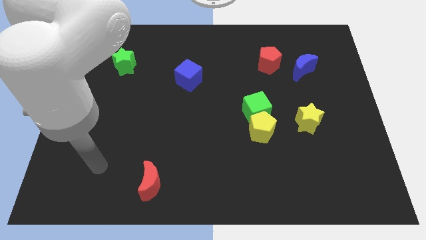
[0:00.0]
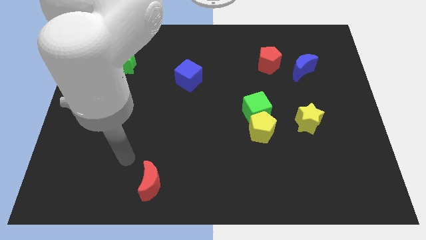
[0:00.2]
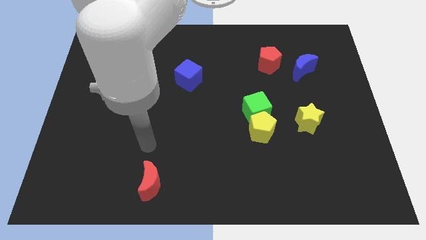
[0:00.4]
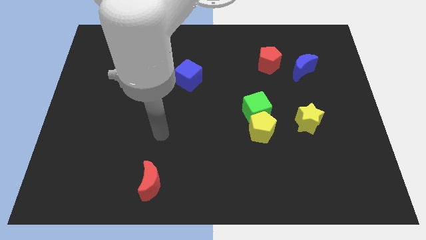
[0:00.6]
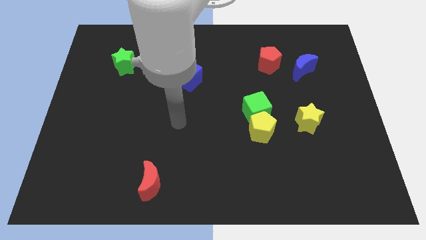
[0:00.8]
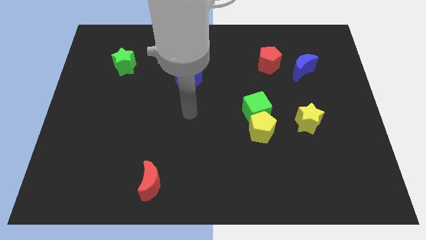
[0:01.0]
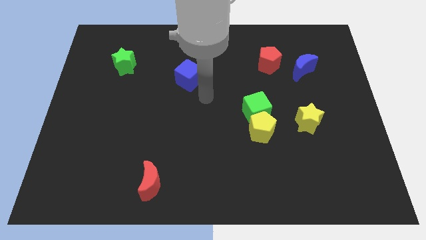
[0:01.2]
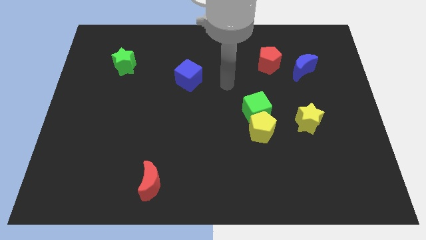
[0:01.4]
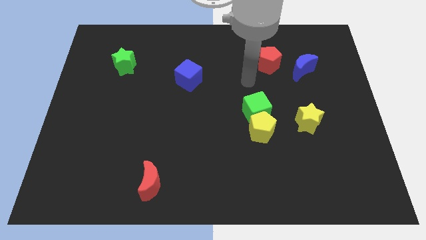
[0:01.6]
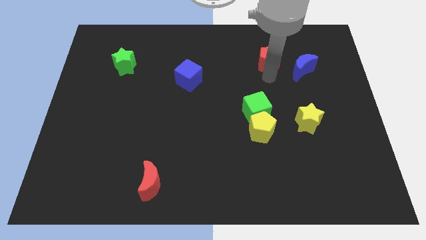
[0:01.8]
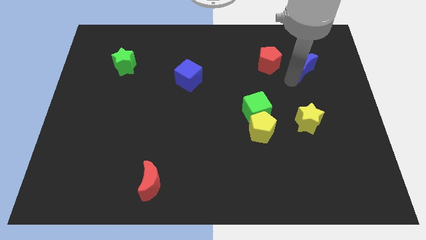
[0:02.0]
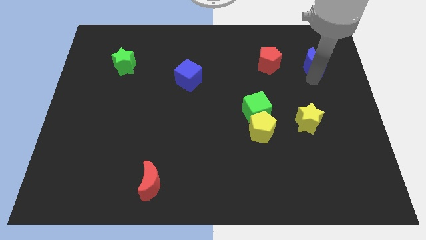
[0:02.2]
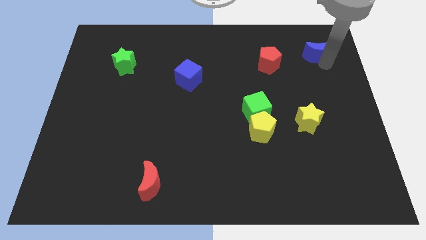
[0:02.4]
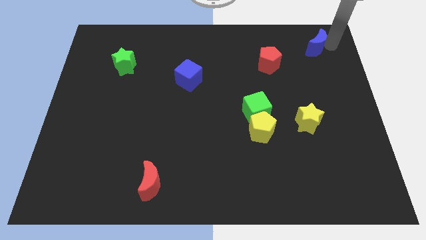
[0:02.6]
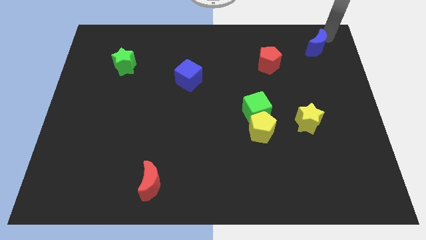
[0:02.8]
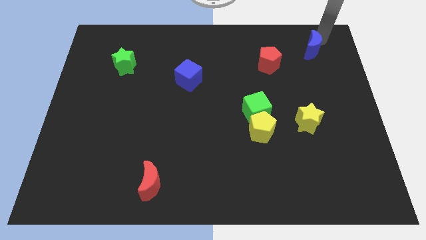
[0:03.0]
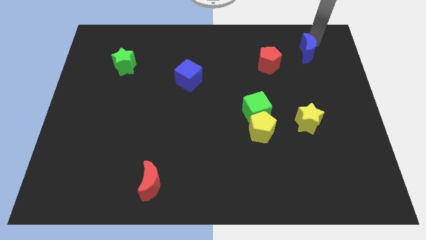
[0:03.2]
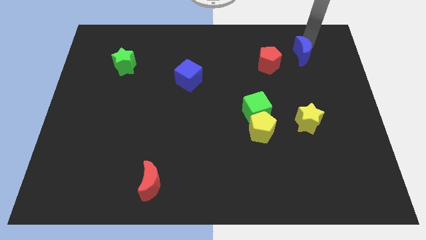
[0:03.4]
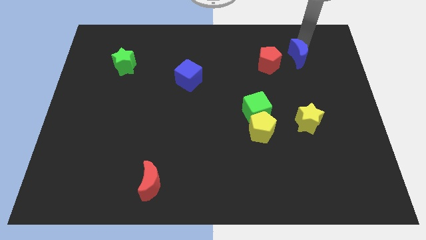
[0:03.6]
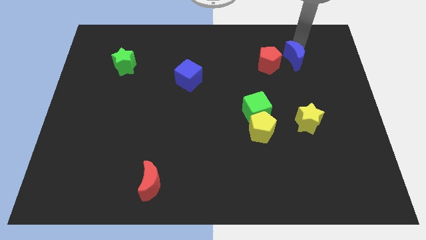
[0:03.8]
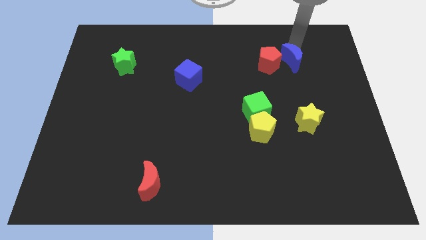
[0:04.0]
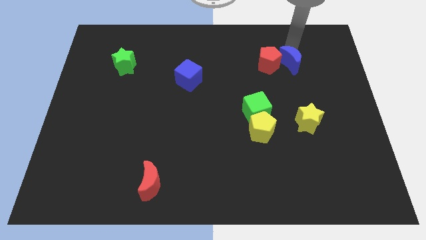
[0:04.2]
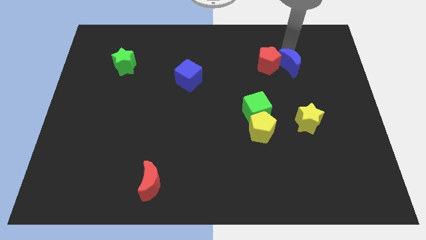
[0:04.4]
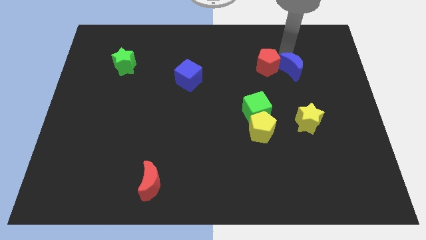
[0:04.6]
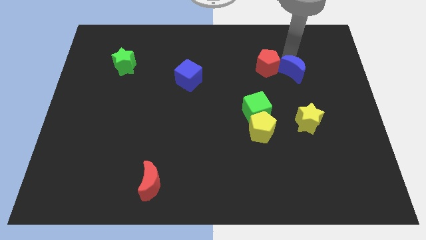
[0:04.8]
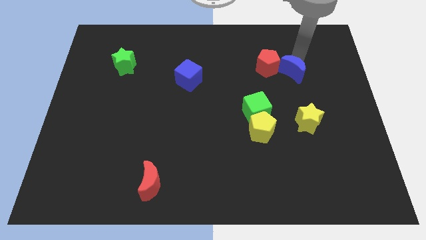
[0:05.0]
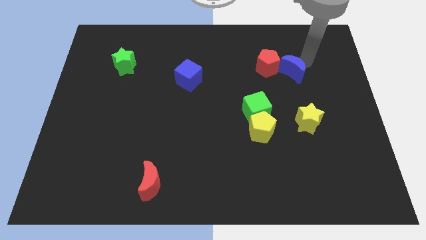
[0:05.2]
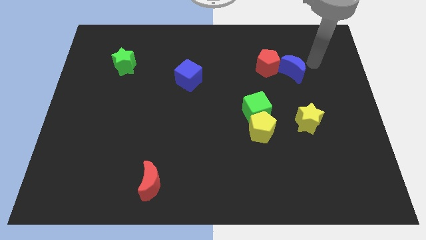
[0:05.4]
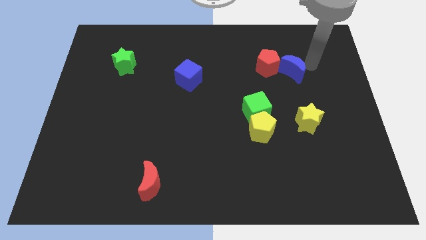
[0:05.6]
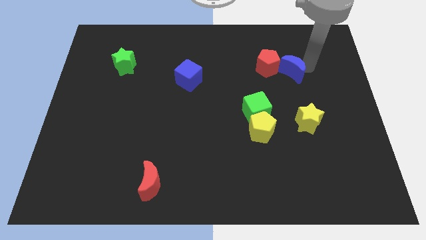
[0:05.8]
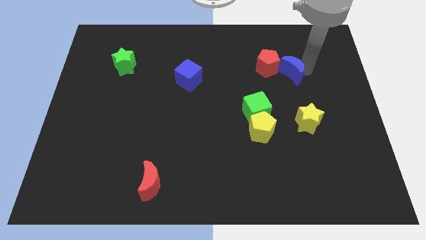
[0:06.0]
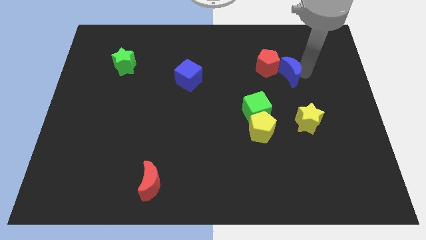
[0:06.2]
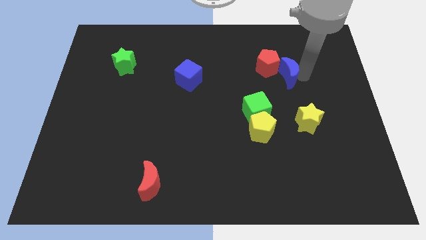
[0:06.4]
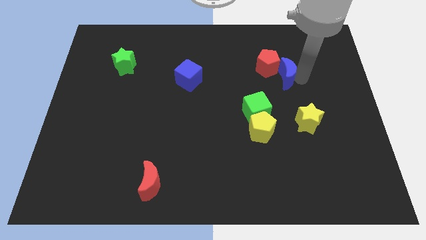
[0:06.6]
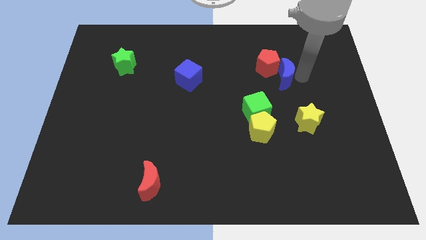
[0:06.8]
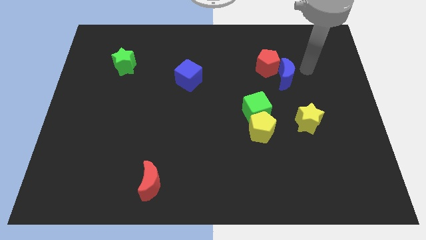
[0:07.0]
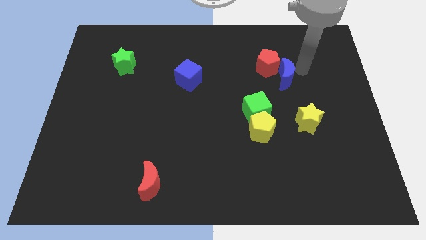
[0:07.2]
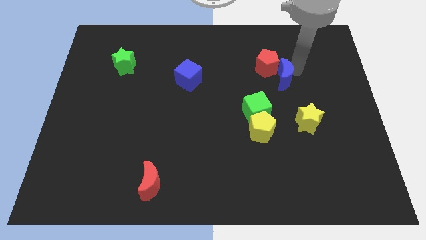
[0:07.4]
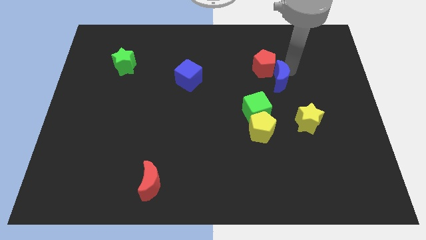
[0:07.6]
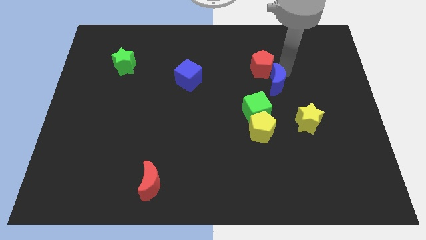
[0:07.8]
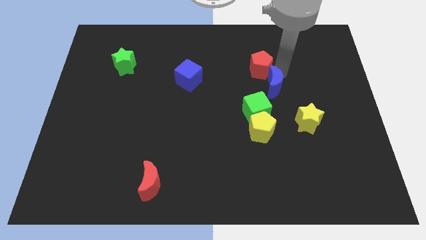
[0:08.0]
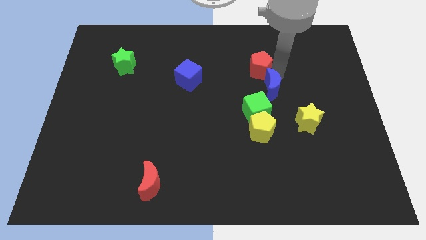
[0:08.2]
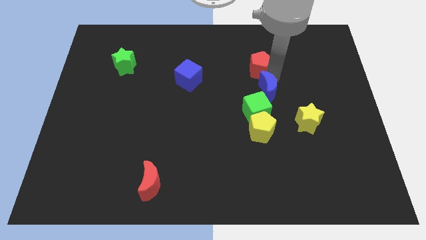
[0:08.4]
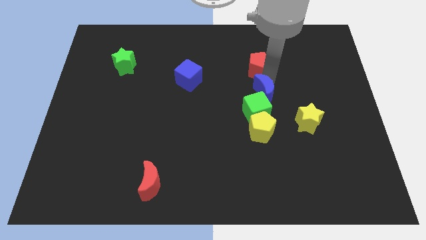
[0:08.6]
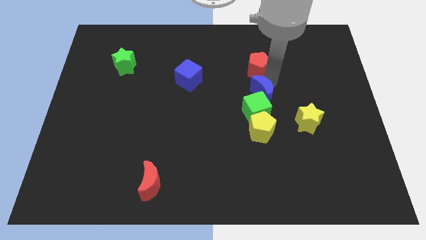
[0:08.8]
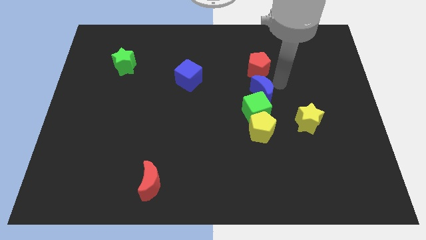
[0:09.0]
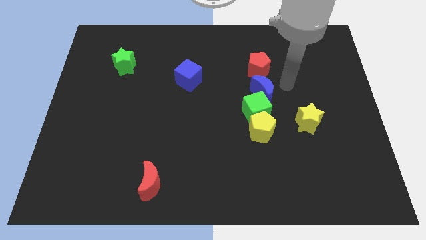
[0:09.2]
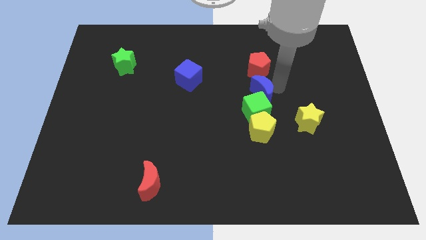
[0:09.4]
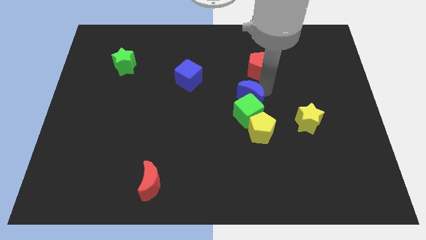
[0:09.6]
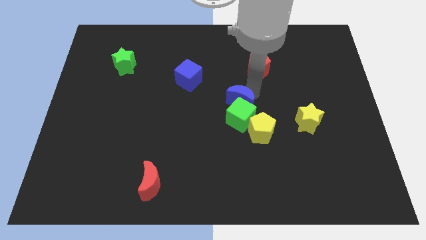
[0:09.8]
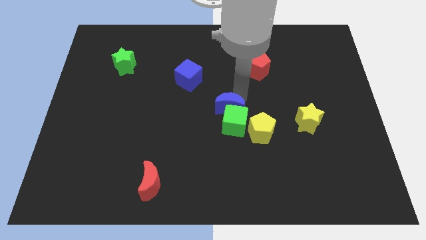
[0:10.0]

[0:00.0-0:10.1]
slide the blue moon downwards and then left

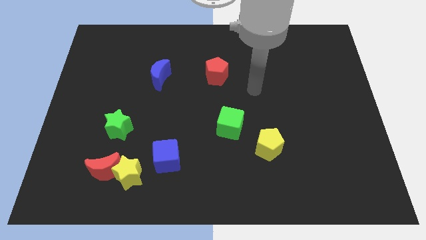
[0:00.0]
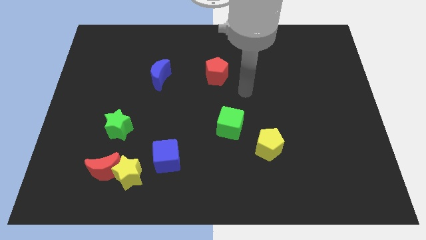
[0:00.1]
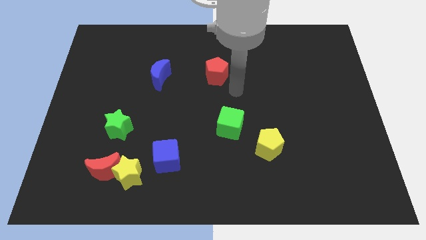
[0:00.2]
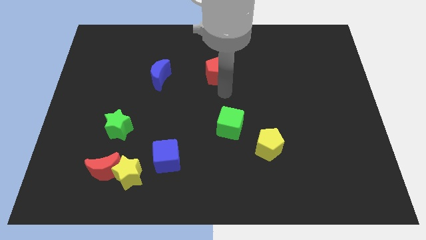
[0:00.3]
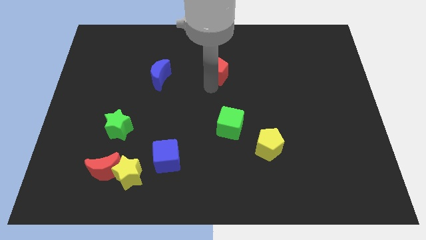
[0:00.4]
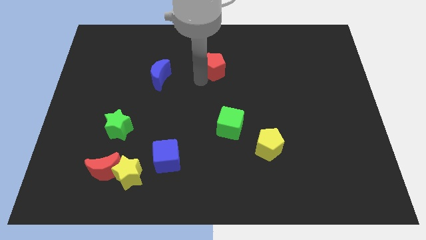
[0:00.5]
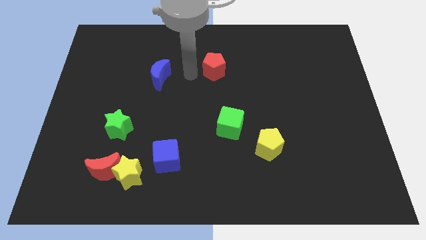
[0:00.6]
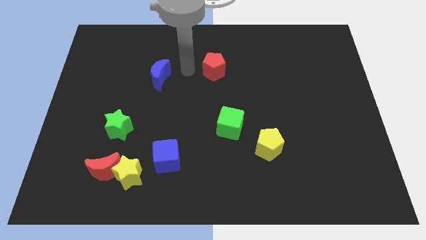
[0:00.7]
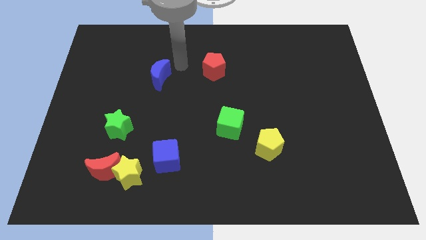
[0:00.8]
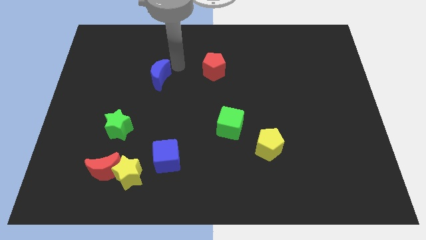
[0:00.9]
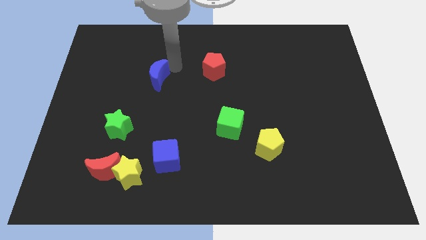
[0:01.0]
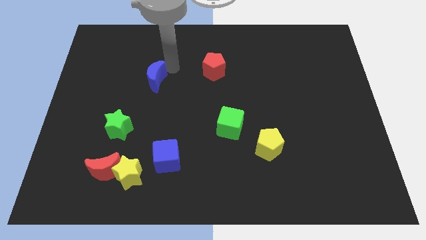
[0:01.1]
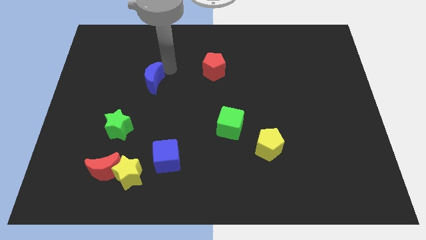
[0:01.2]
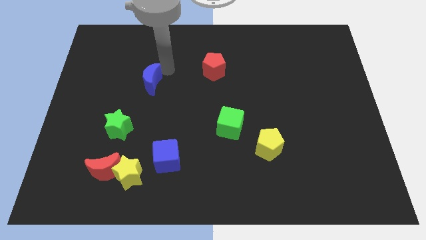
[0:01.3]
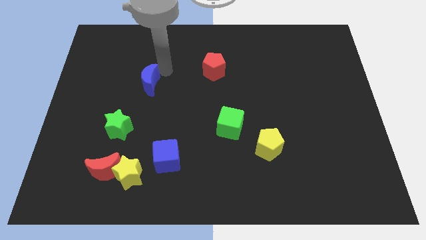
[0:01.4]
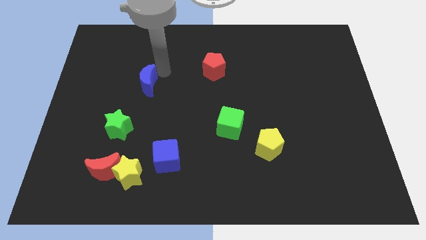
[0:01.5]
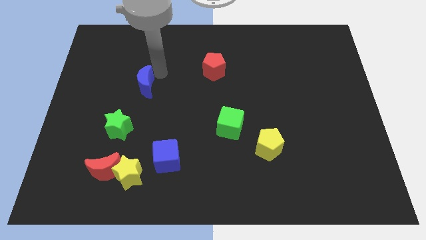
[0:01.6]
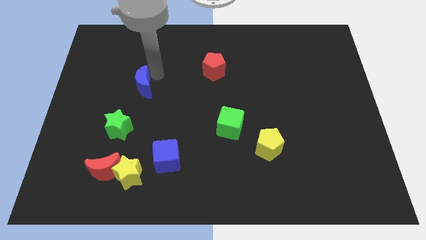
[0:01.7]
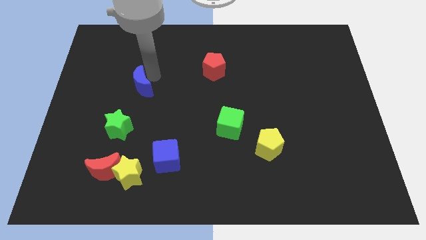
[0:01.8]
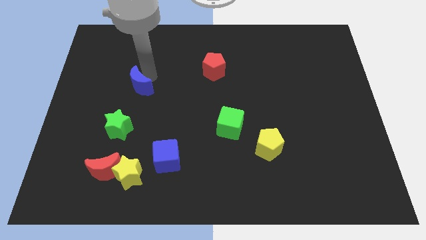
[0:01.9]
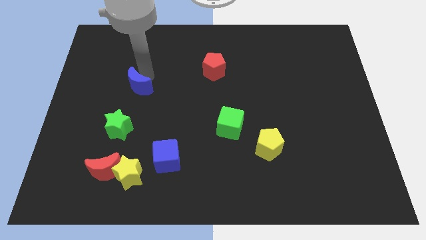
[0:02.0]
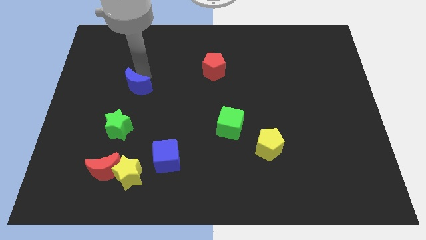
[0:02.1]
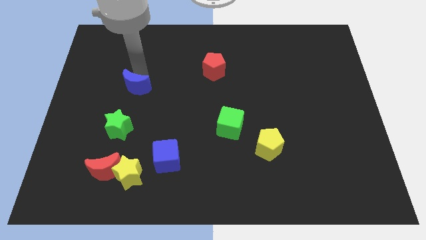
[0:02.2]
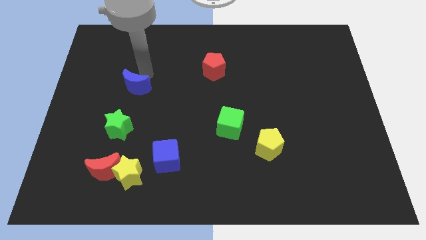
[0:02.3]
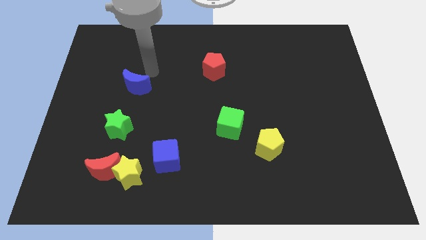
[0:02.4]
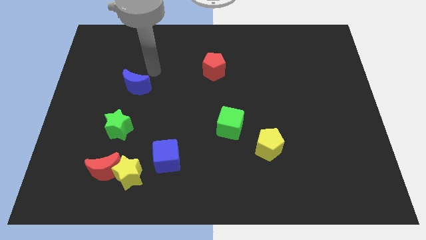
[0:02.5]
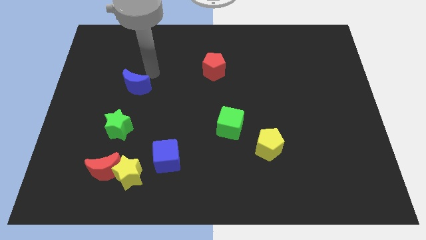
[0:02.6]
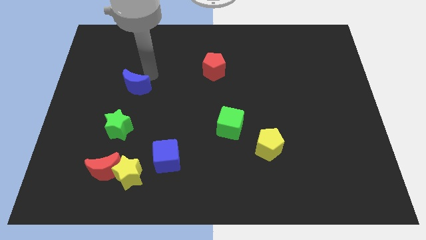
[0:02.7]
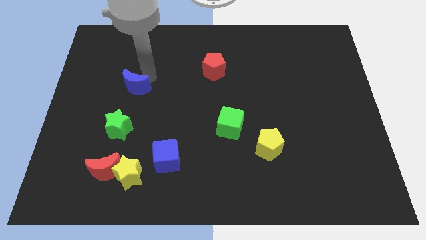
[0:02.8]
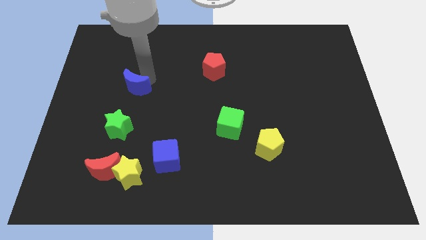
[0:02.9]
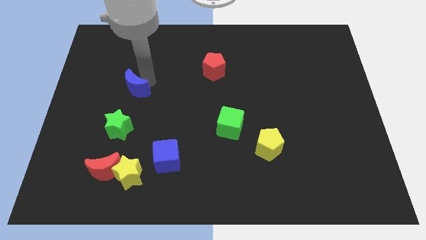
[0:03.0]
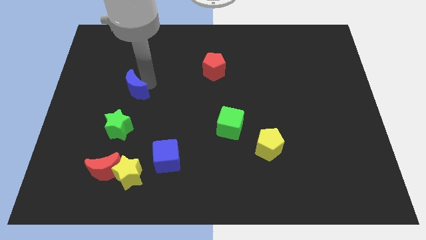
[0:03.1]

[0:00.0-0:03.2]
push the blue moon diagonally down and left a little
